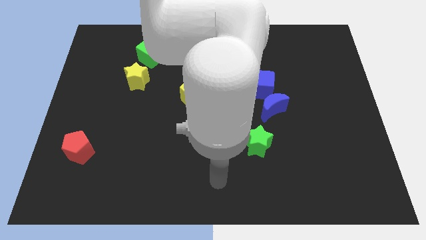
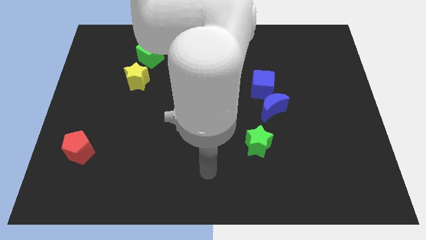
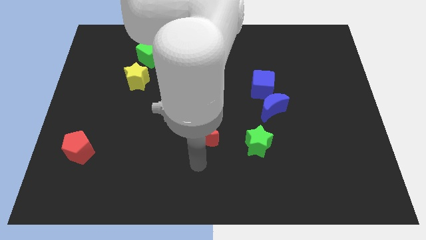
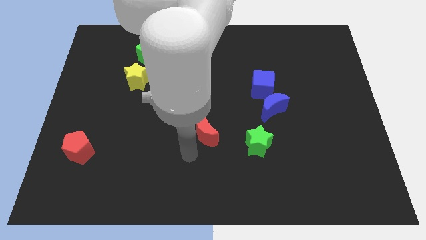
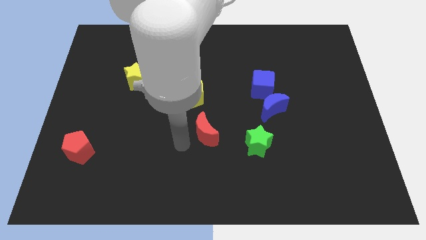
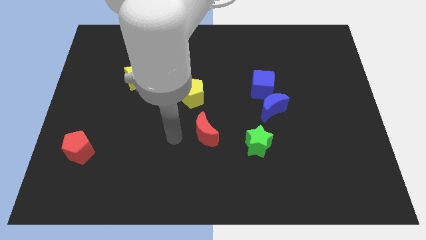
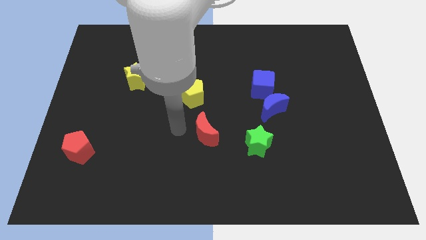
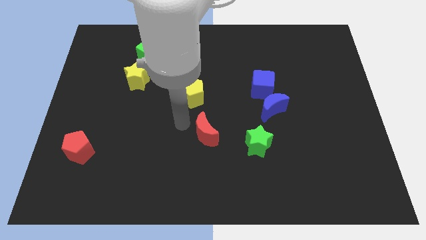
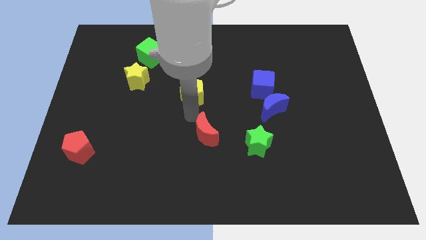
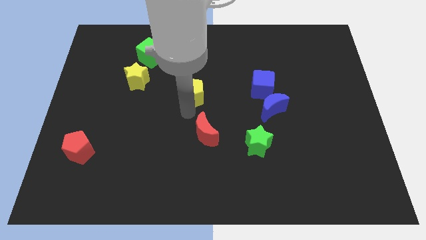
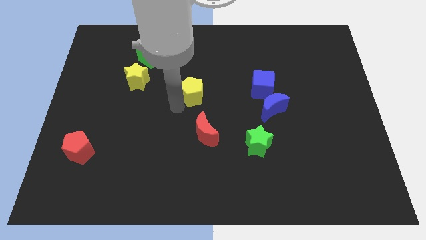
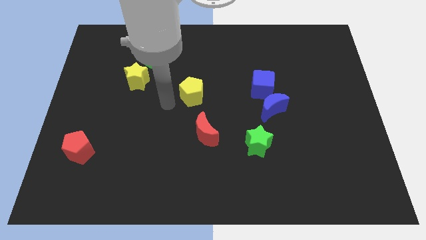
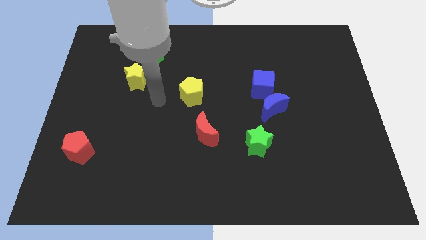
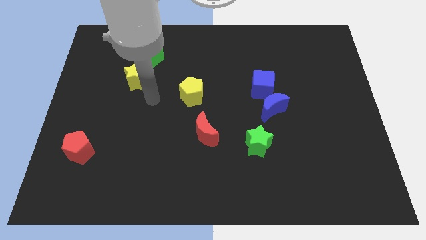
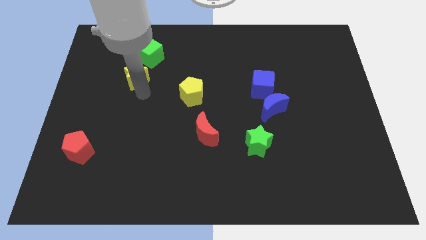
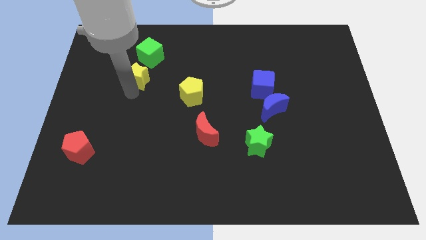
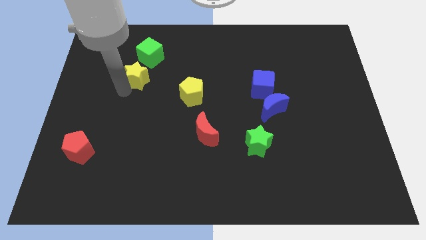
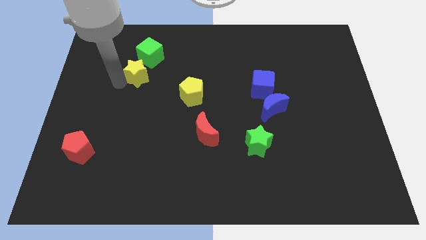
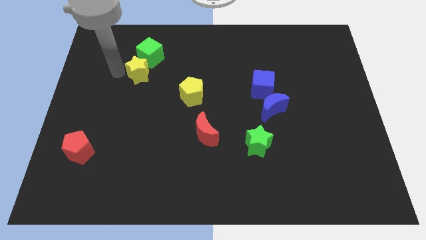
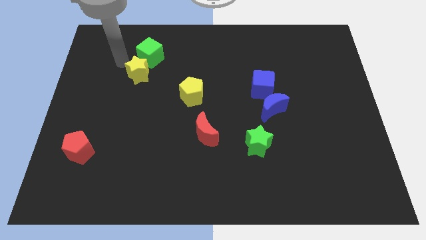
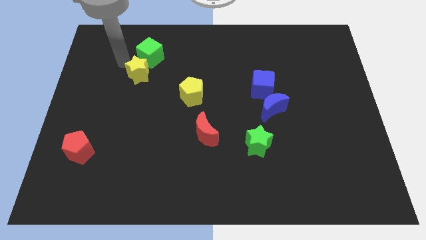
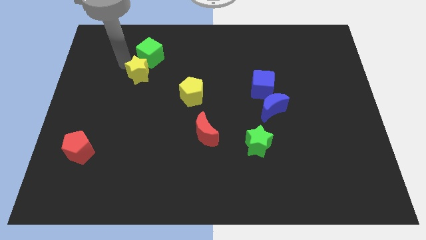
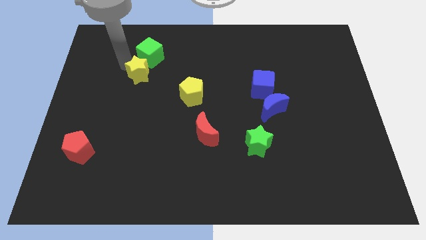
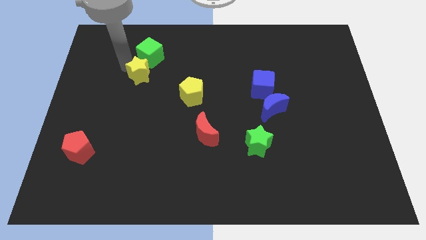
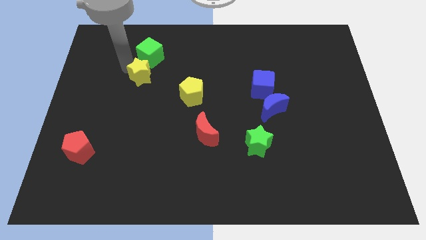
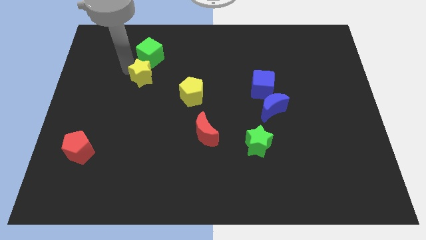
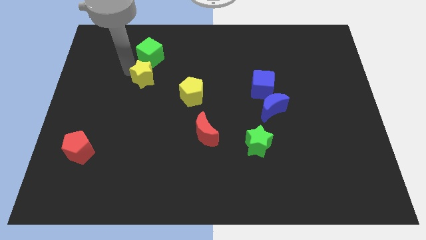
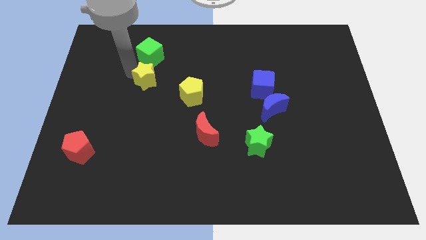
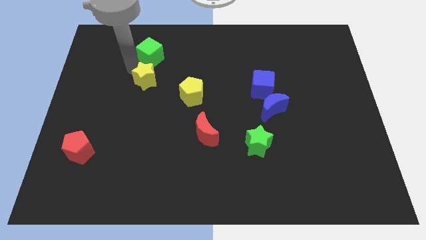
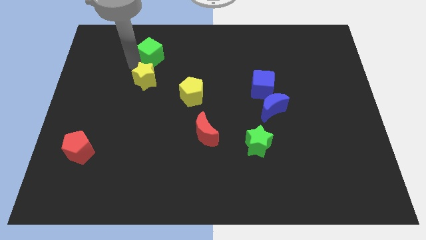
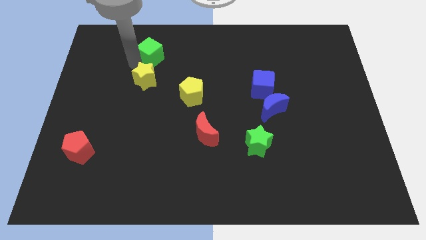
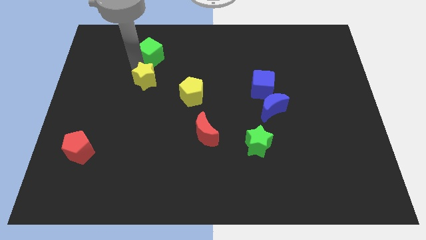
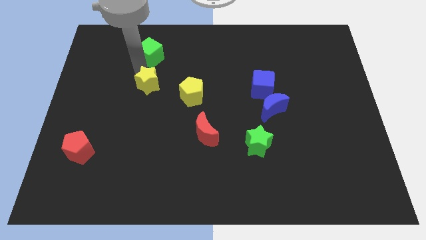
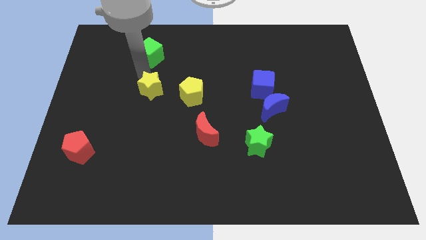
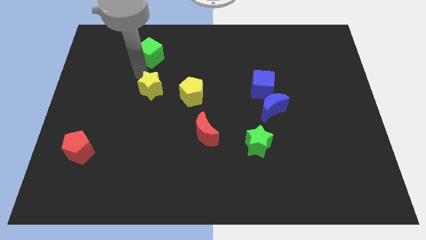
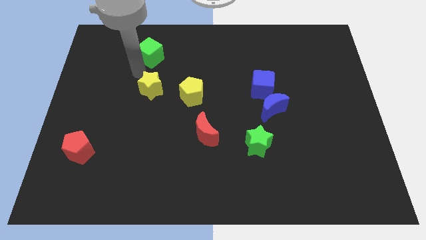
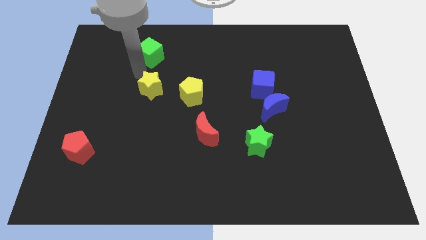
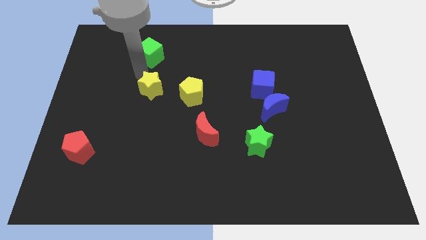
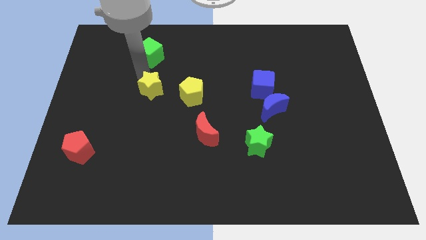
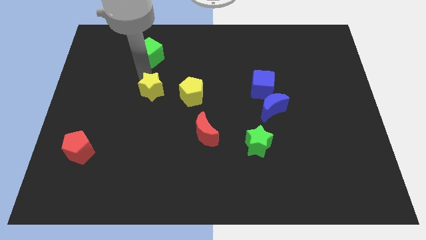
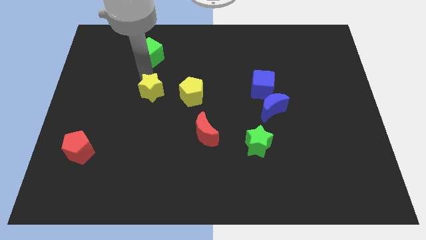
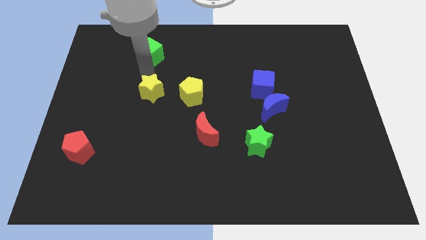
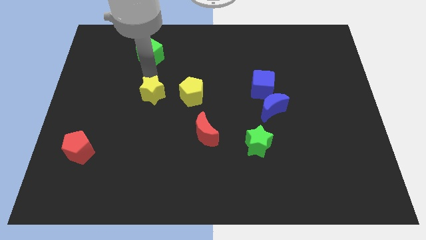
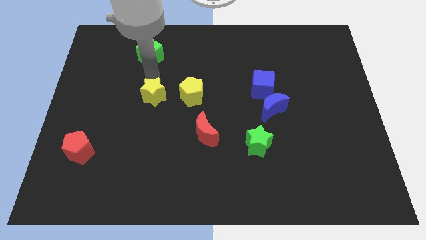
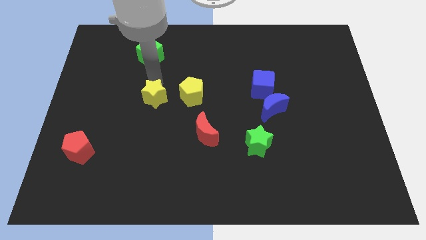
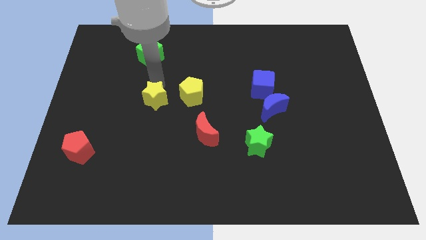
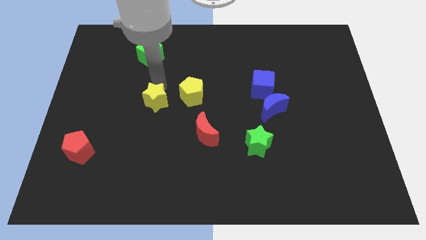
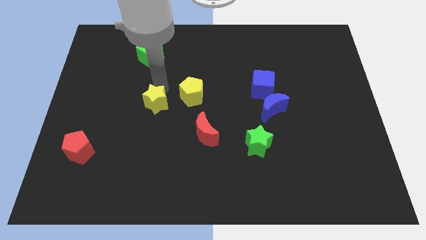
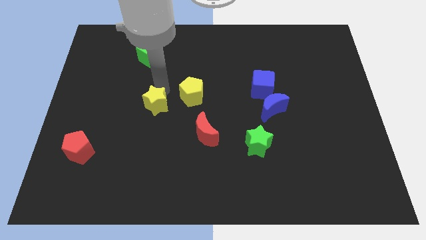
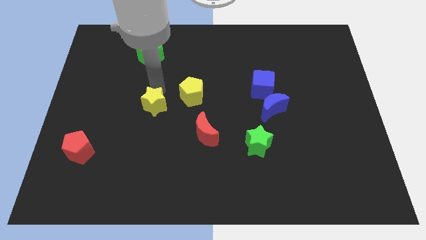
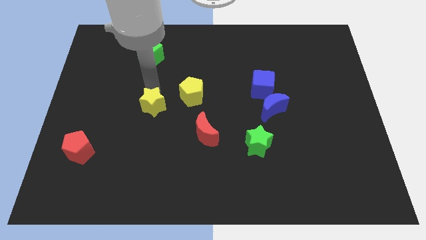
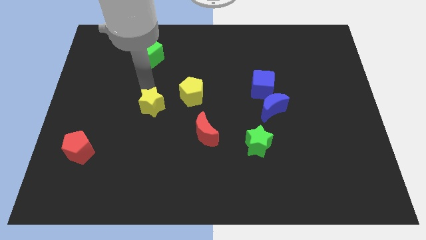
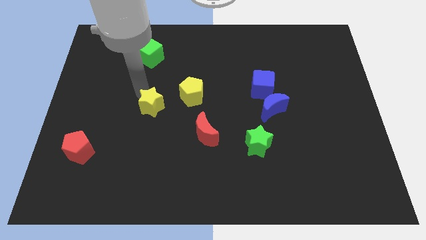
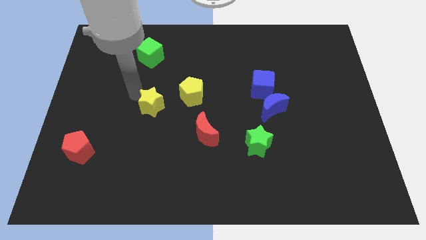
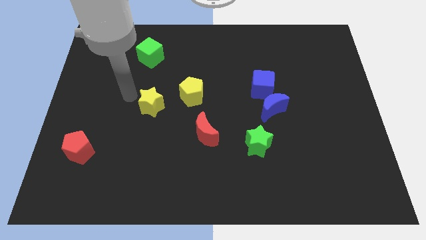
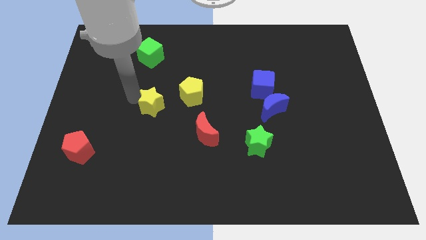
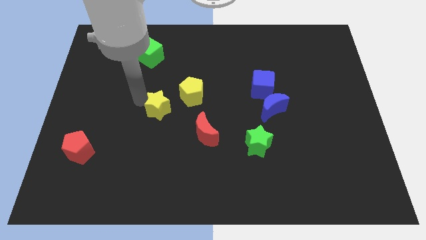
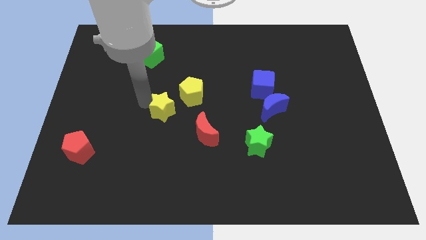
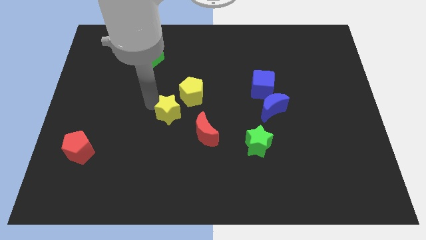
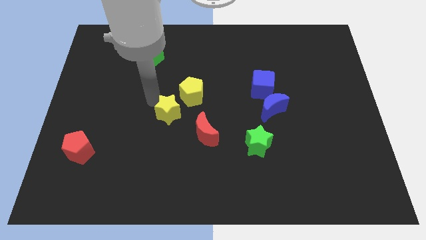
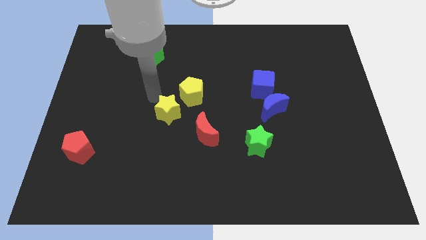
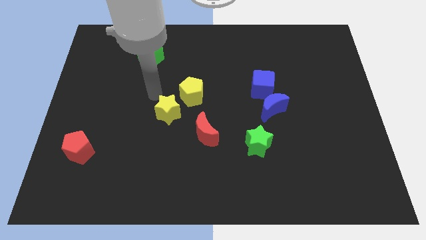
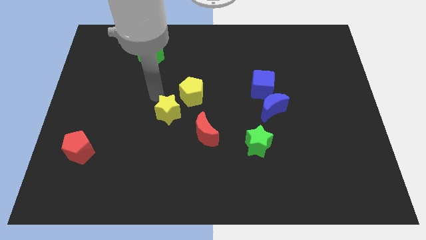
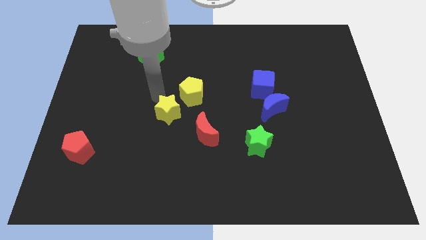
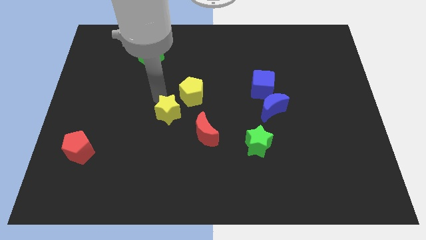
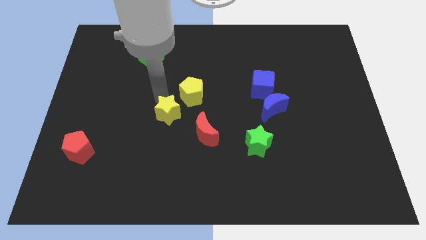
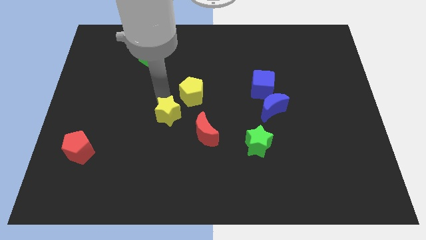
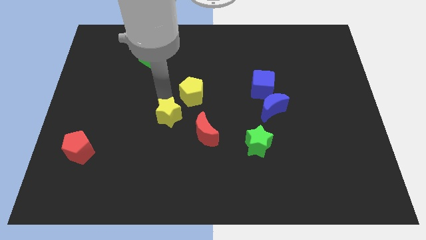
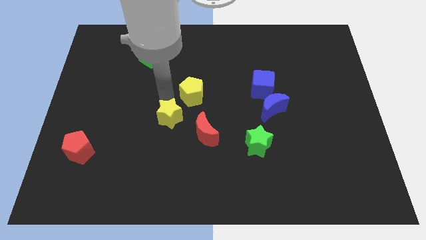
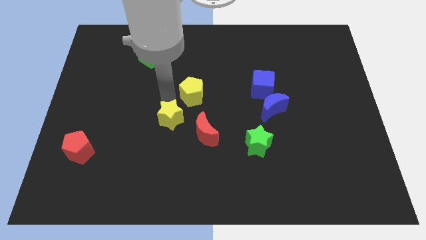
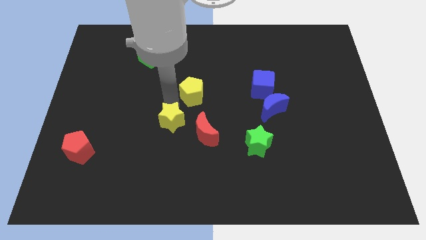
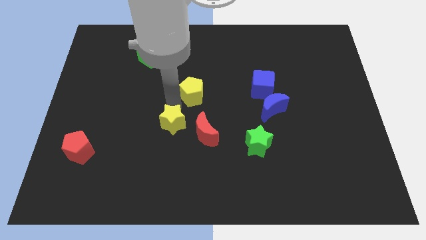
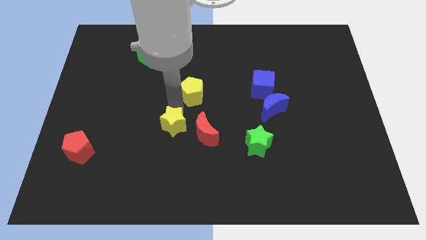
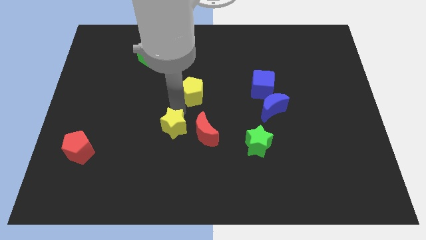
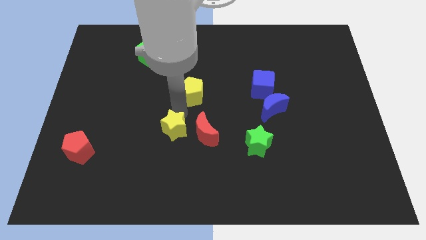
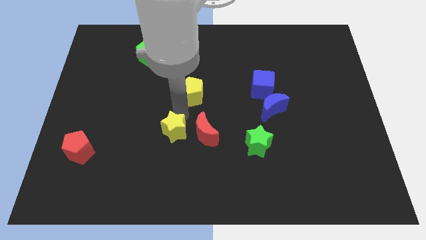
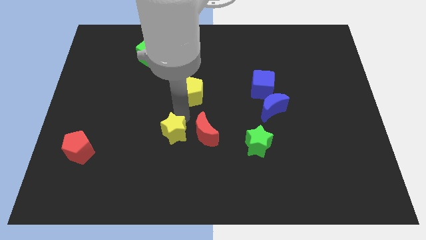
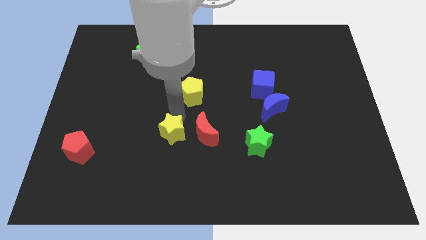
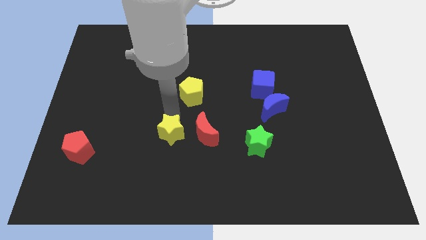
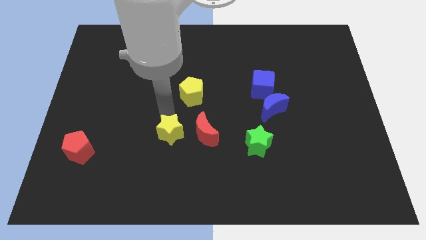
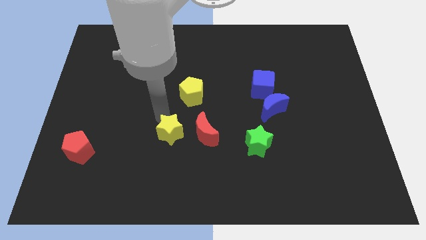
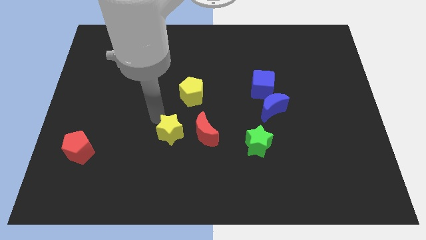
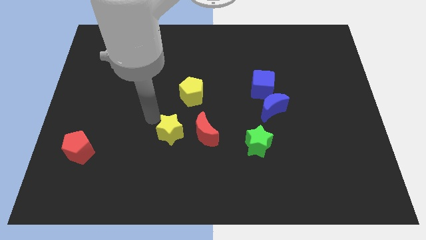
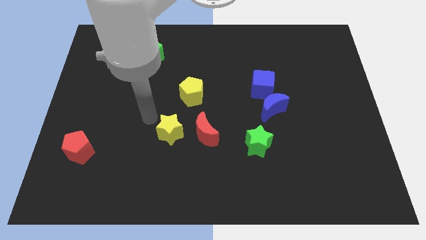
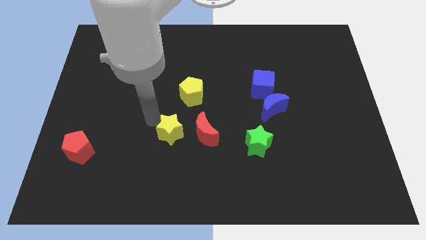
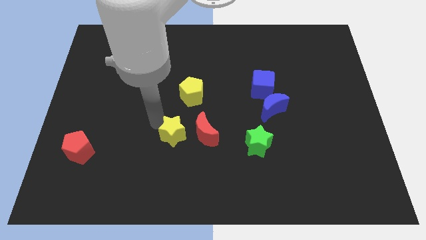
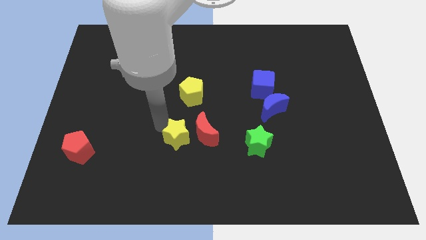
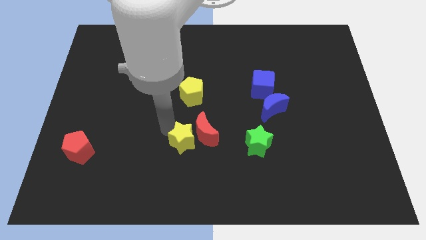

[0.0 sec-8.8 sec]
move the yellow star downwards and right diagonally
